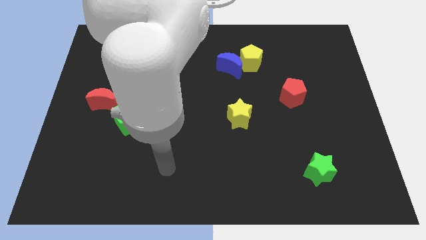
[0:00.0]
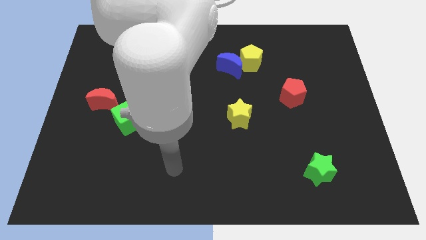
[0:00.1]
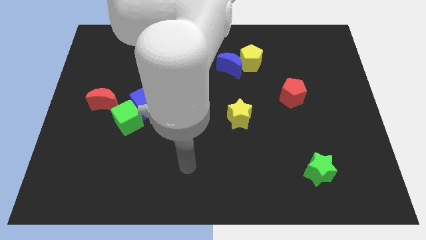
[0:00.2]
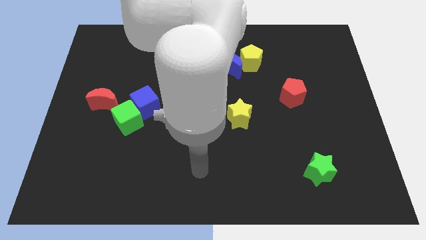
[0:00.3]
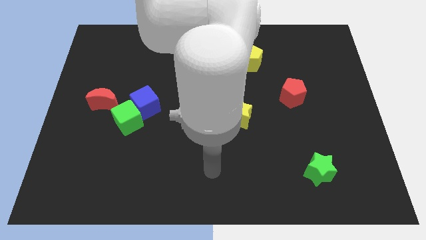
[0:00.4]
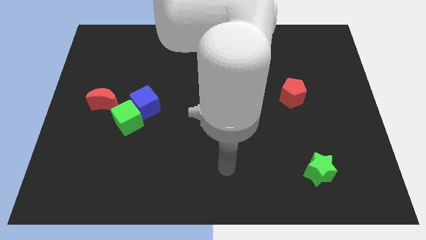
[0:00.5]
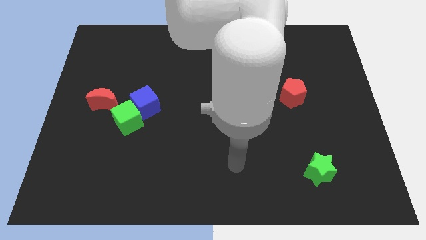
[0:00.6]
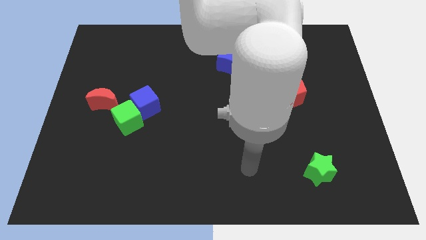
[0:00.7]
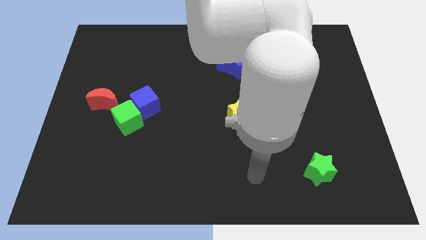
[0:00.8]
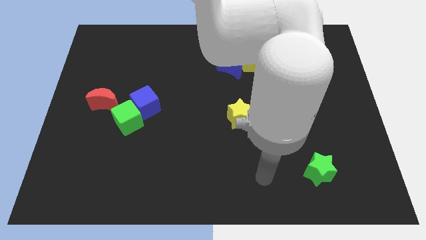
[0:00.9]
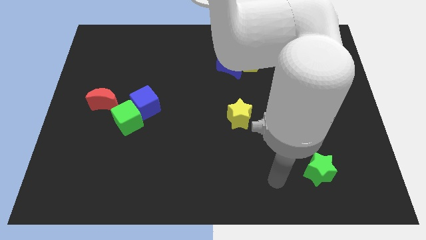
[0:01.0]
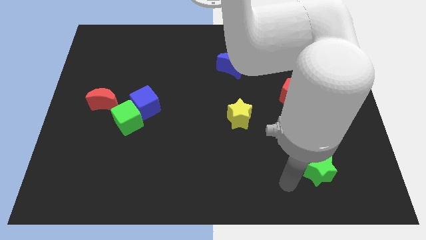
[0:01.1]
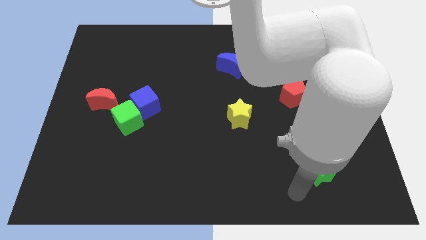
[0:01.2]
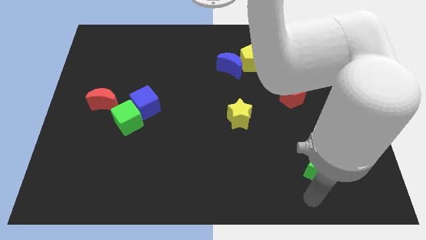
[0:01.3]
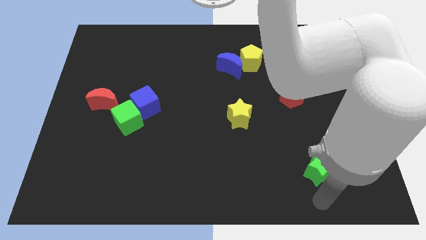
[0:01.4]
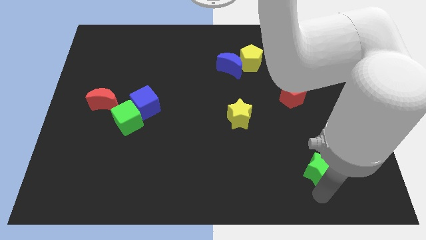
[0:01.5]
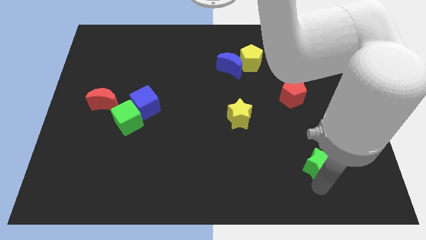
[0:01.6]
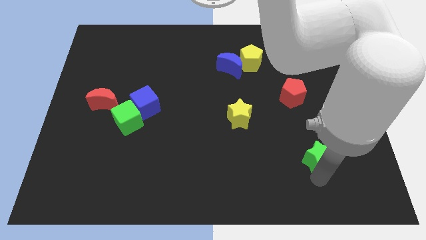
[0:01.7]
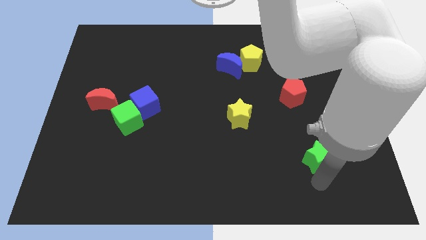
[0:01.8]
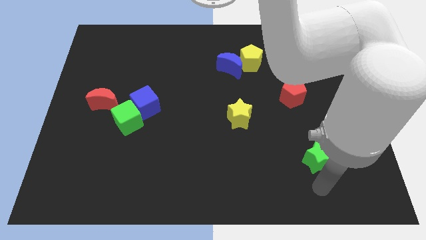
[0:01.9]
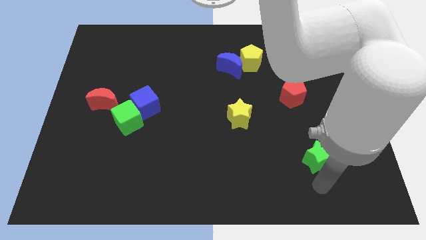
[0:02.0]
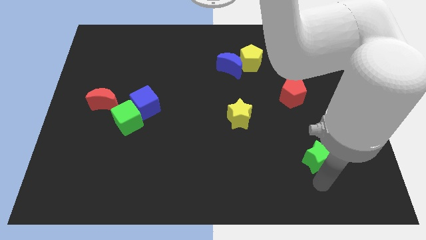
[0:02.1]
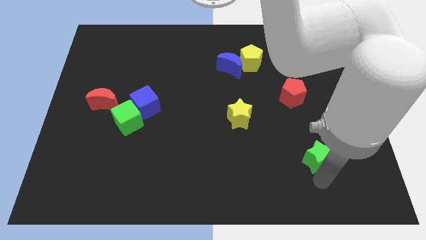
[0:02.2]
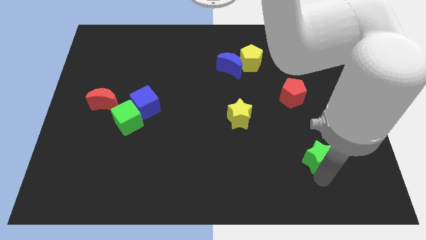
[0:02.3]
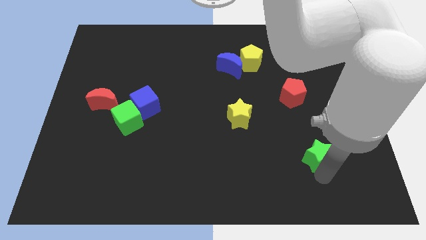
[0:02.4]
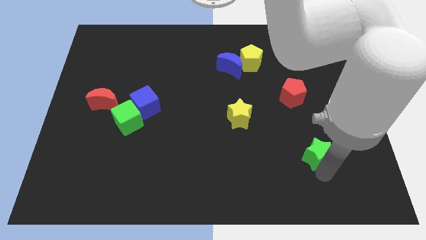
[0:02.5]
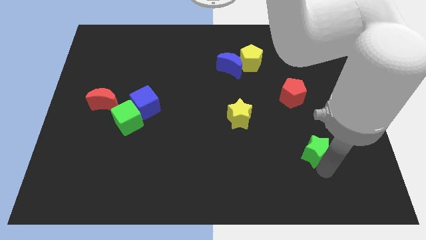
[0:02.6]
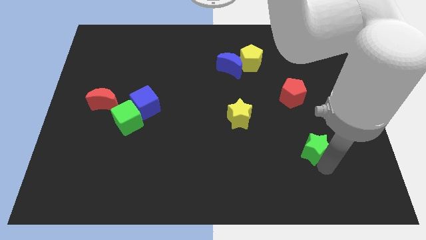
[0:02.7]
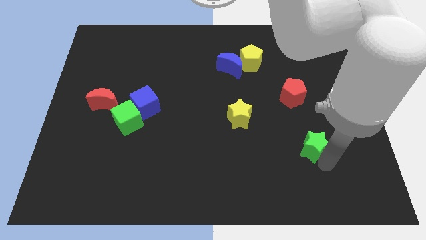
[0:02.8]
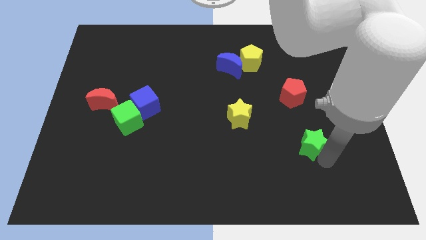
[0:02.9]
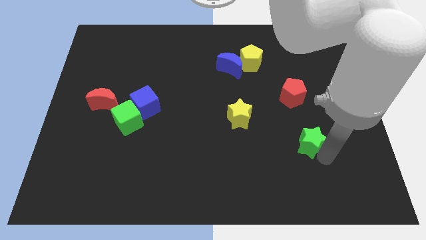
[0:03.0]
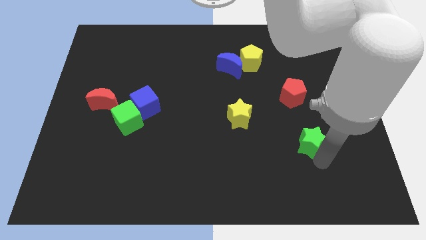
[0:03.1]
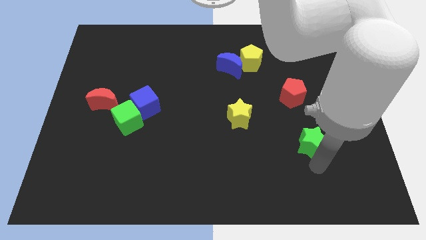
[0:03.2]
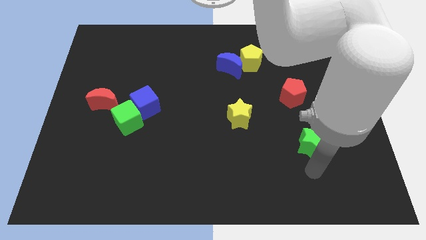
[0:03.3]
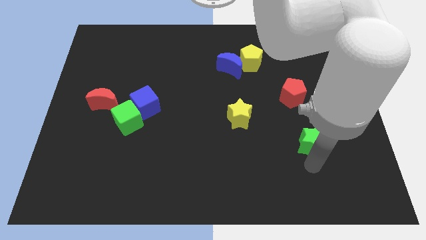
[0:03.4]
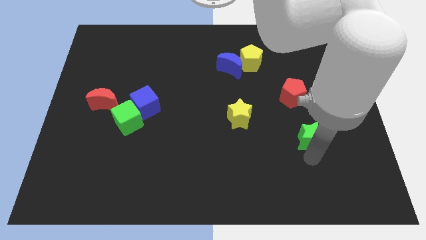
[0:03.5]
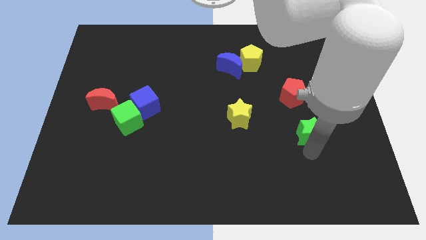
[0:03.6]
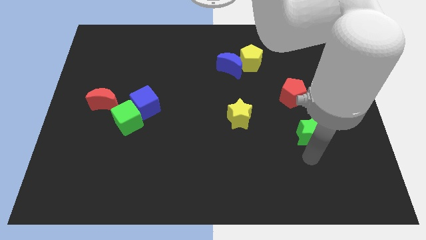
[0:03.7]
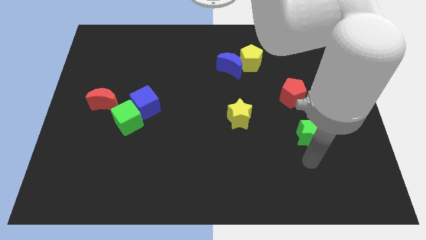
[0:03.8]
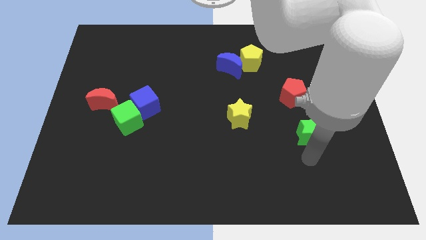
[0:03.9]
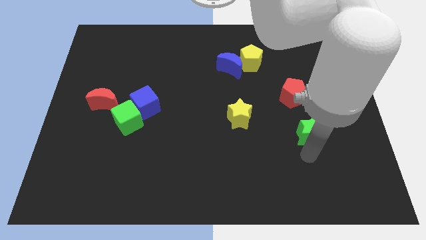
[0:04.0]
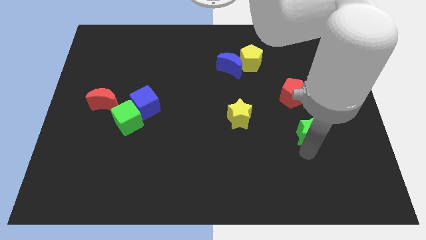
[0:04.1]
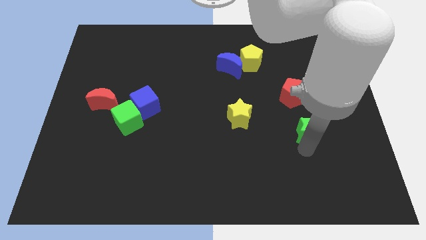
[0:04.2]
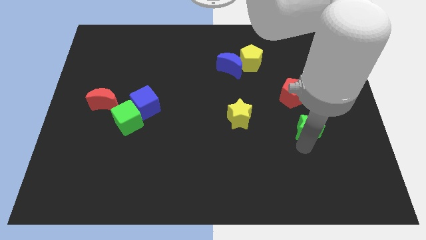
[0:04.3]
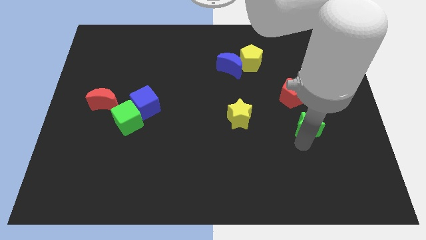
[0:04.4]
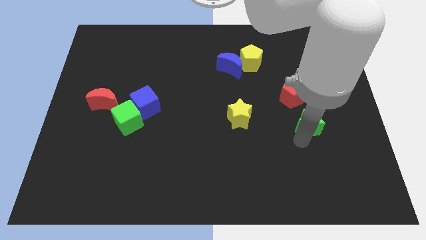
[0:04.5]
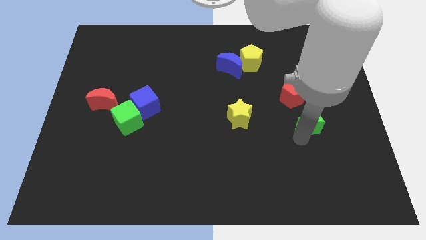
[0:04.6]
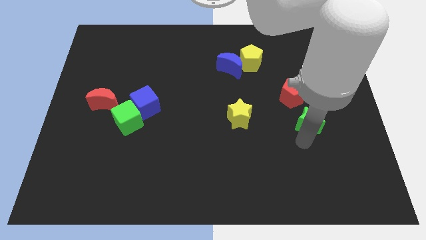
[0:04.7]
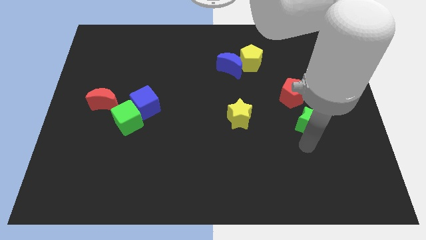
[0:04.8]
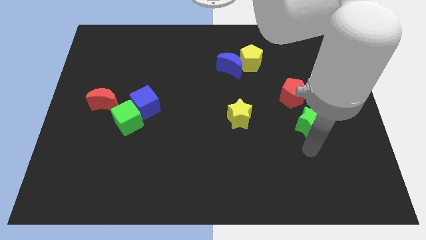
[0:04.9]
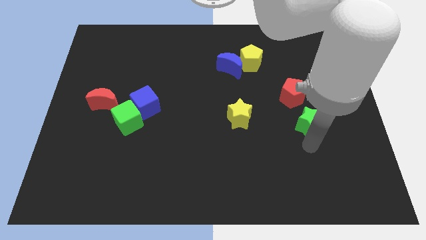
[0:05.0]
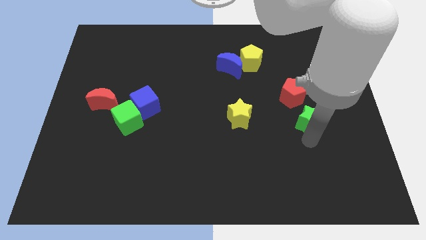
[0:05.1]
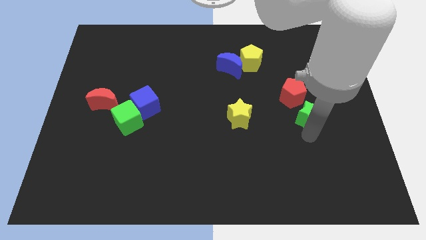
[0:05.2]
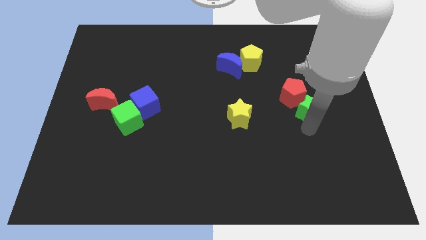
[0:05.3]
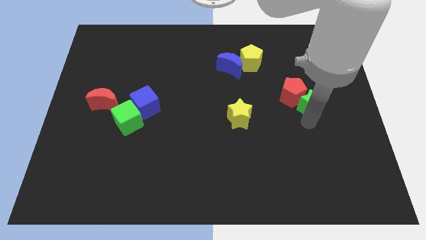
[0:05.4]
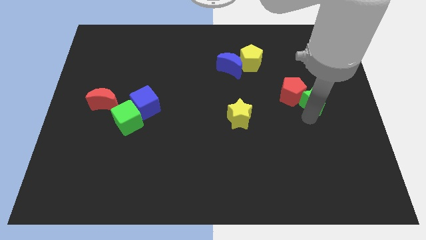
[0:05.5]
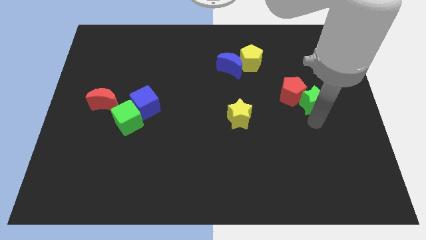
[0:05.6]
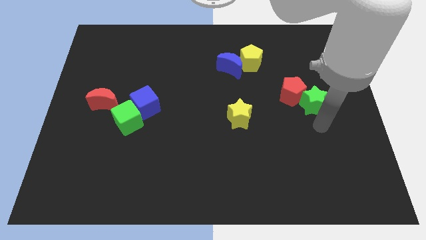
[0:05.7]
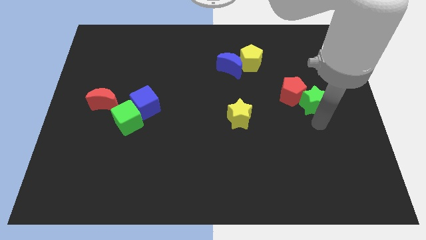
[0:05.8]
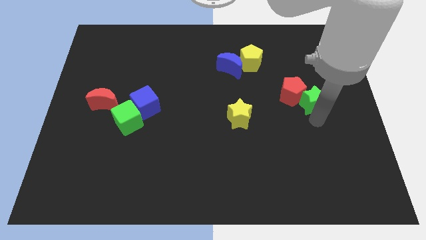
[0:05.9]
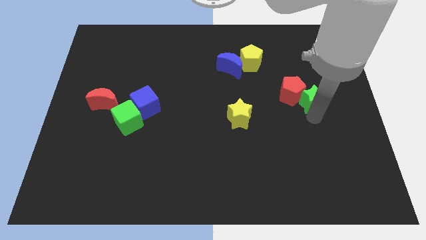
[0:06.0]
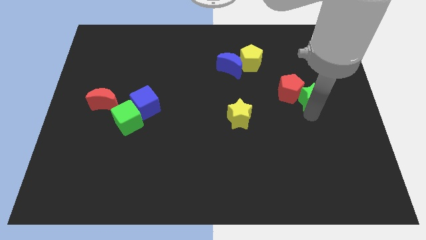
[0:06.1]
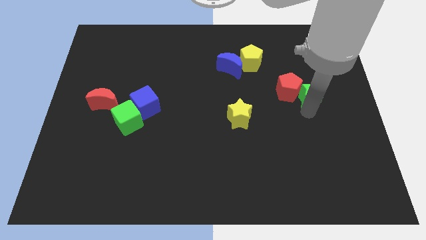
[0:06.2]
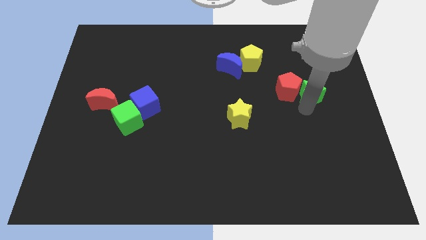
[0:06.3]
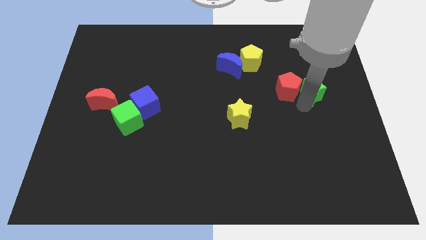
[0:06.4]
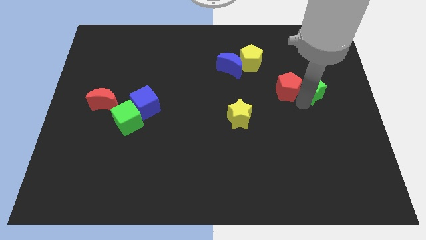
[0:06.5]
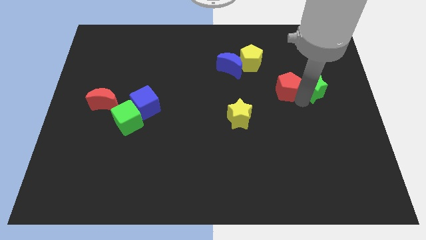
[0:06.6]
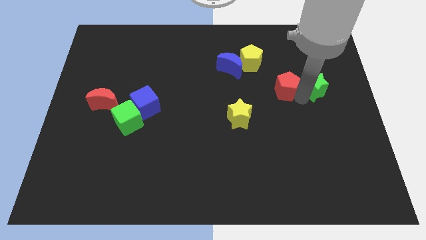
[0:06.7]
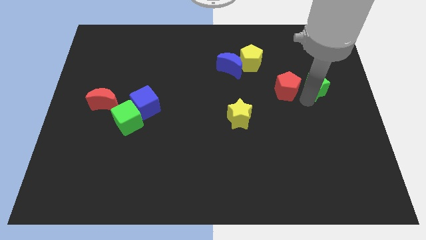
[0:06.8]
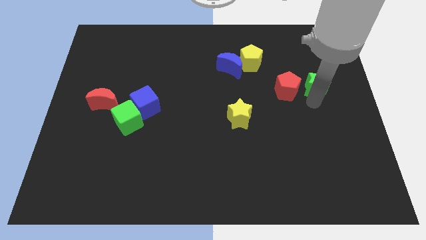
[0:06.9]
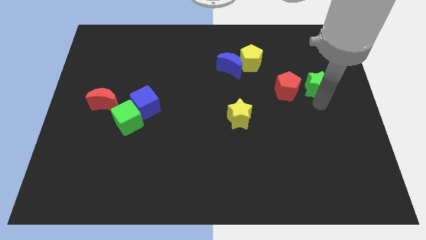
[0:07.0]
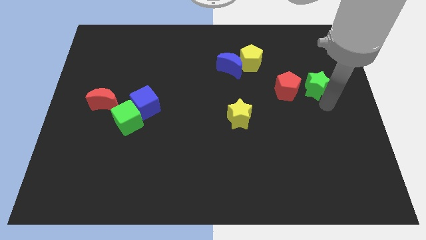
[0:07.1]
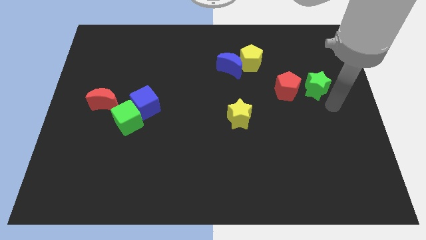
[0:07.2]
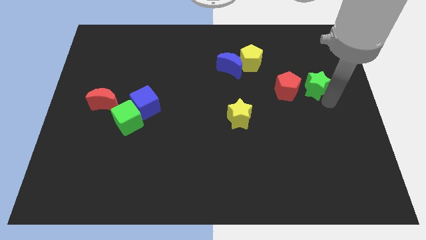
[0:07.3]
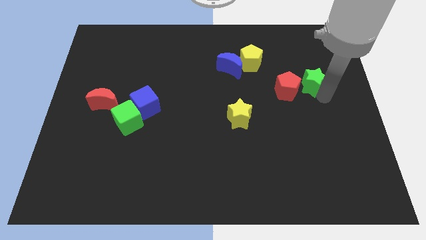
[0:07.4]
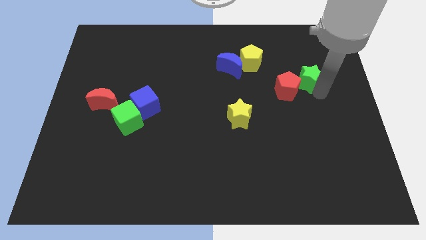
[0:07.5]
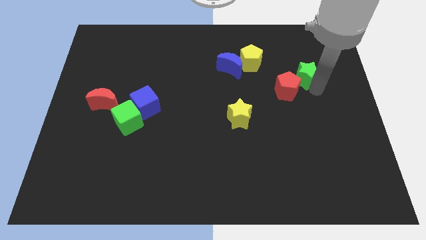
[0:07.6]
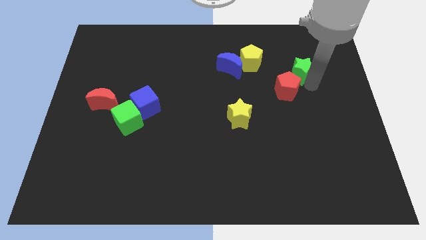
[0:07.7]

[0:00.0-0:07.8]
put the green star to the right side of the yellow pentagon
